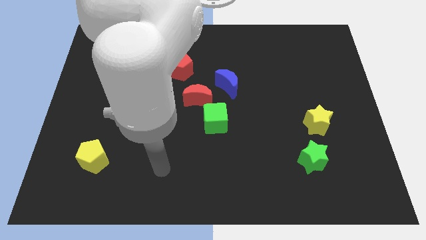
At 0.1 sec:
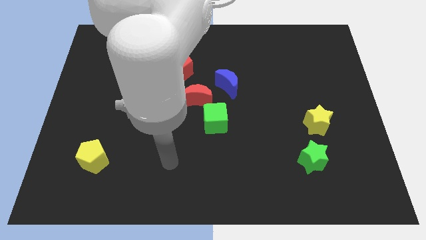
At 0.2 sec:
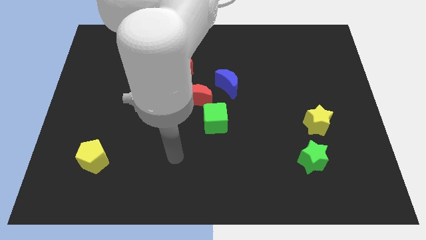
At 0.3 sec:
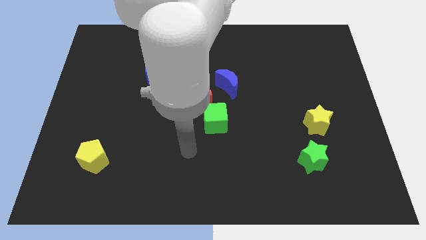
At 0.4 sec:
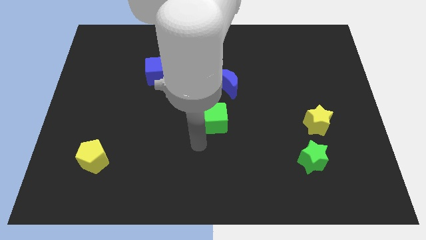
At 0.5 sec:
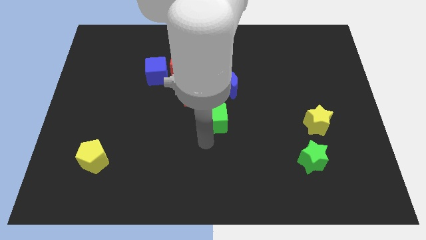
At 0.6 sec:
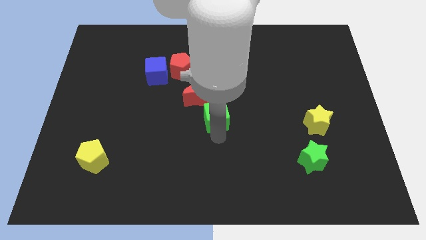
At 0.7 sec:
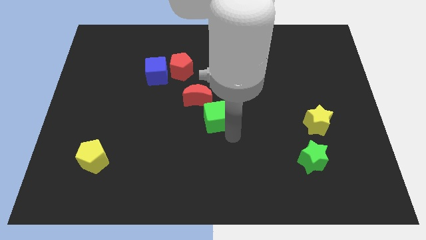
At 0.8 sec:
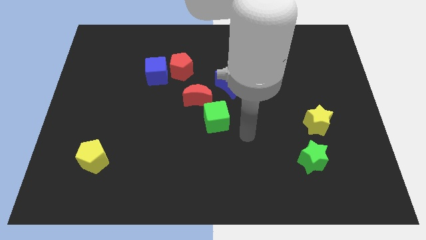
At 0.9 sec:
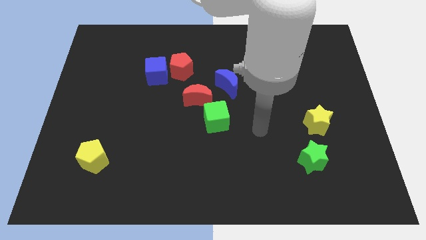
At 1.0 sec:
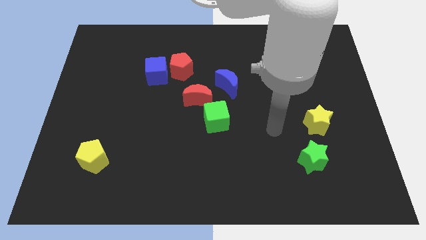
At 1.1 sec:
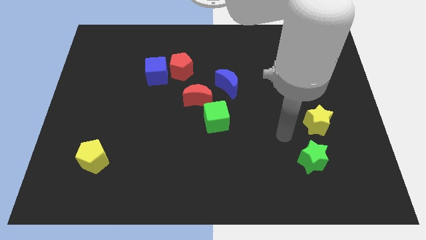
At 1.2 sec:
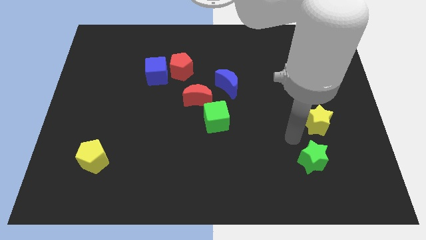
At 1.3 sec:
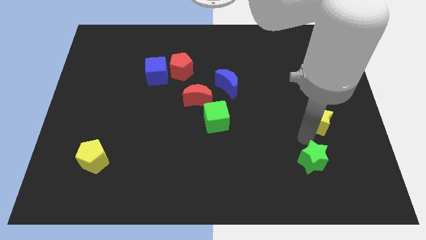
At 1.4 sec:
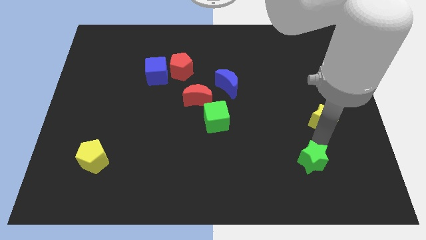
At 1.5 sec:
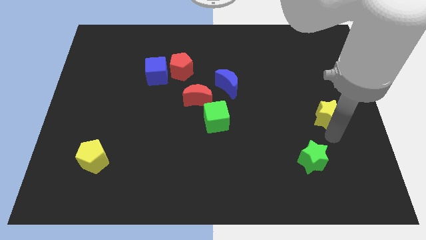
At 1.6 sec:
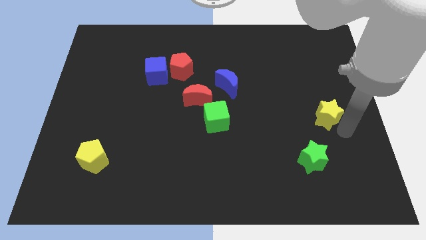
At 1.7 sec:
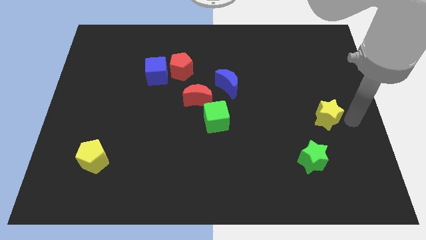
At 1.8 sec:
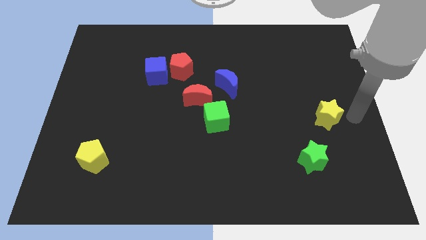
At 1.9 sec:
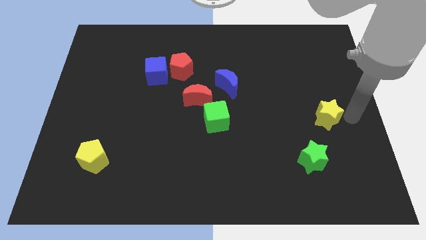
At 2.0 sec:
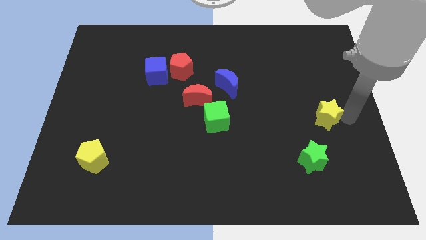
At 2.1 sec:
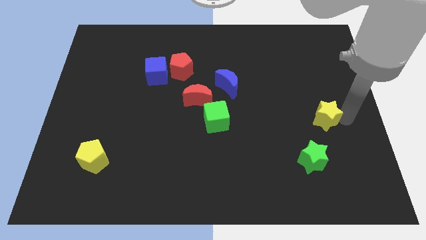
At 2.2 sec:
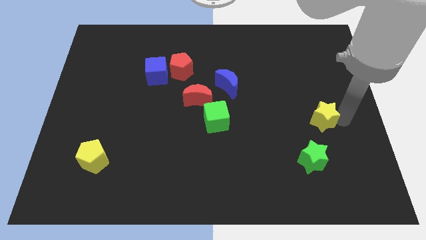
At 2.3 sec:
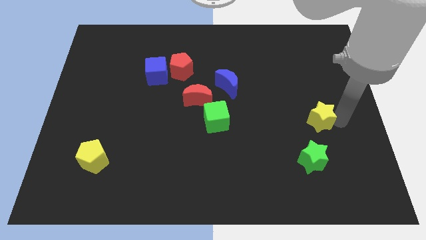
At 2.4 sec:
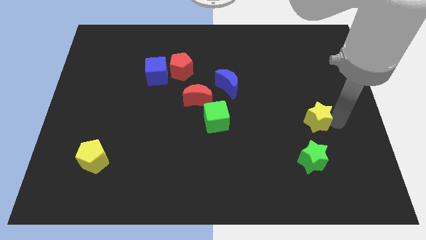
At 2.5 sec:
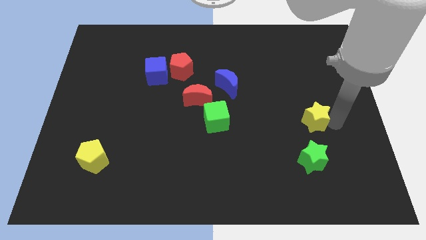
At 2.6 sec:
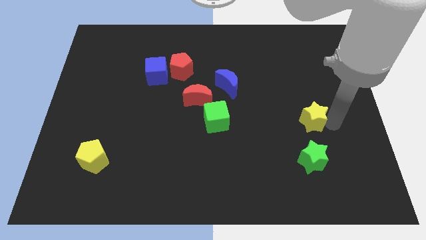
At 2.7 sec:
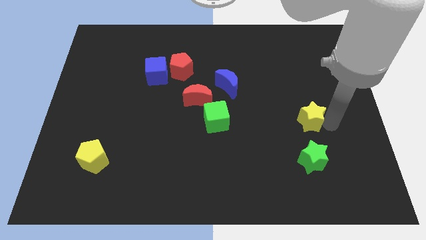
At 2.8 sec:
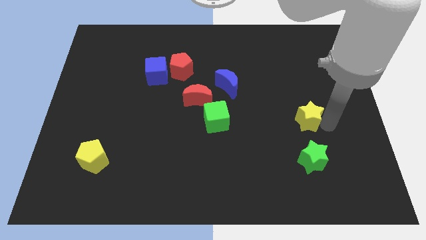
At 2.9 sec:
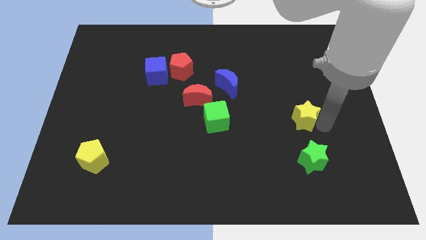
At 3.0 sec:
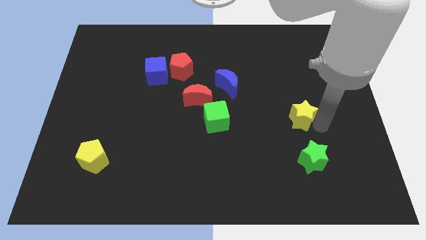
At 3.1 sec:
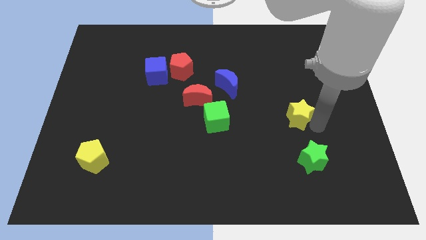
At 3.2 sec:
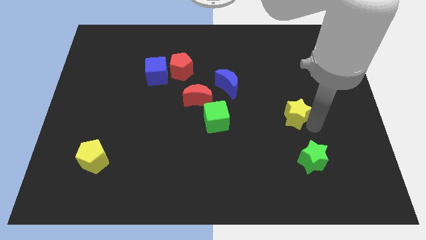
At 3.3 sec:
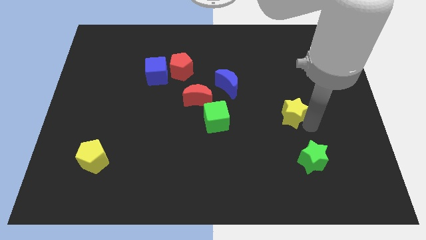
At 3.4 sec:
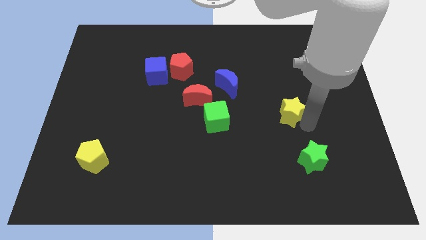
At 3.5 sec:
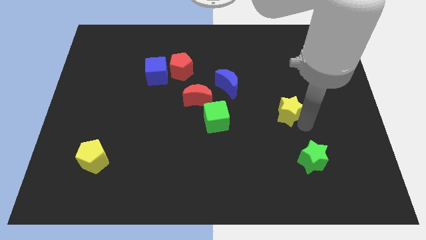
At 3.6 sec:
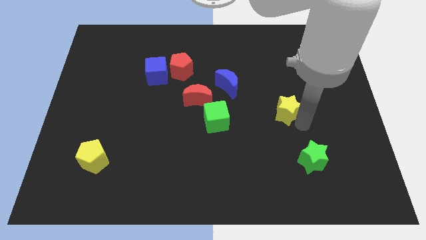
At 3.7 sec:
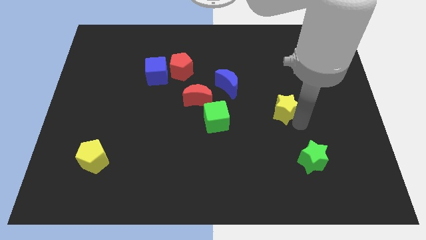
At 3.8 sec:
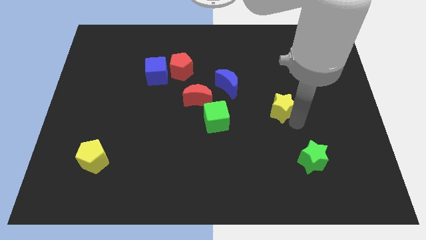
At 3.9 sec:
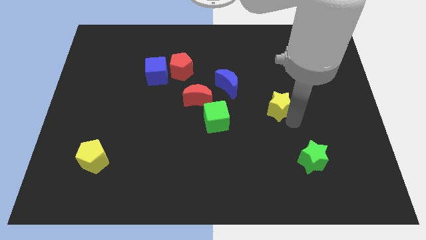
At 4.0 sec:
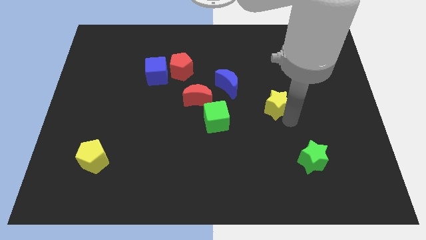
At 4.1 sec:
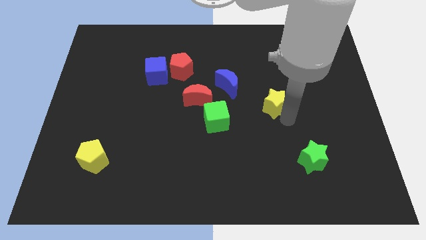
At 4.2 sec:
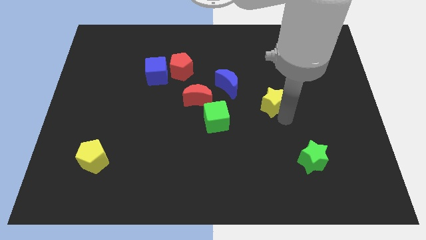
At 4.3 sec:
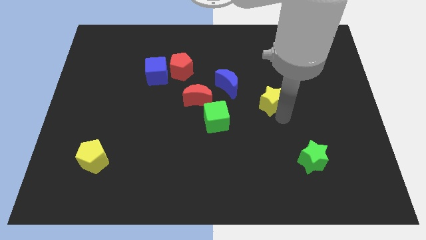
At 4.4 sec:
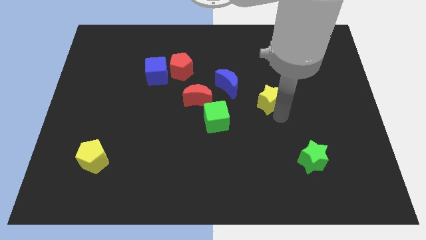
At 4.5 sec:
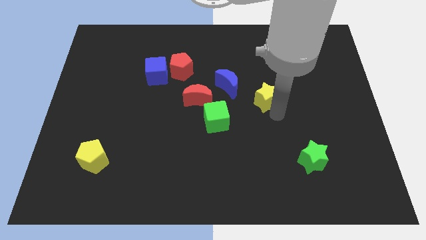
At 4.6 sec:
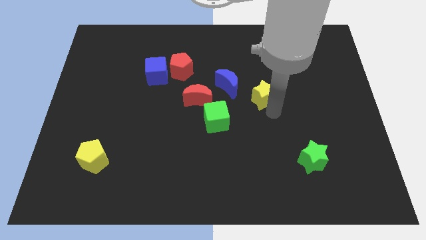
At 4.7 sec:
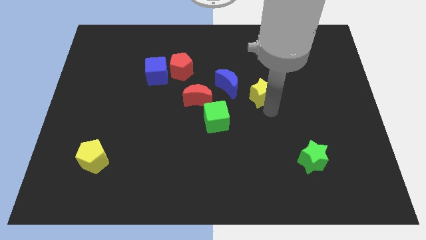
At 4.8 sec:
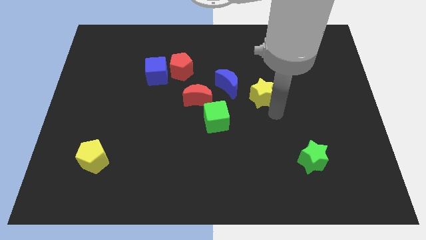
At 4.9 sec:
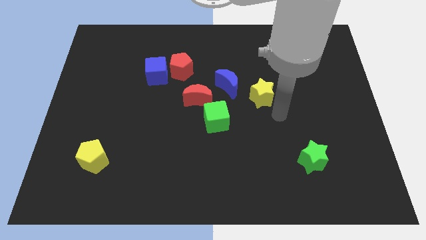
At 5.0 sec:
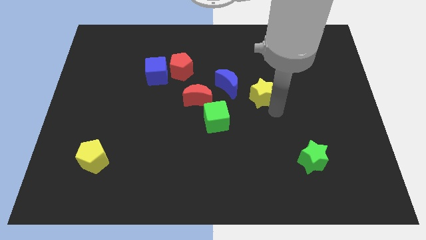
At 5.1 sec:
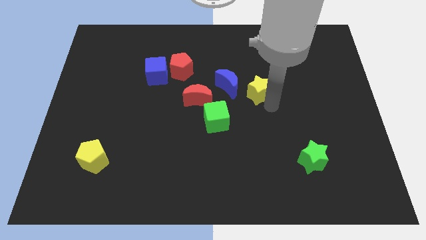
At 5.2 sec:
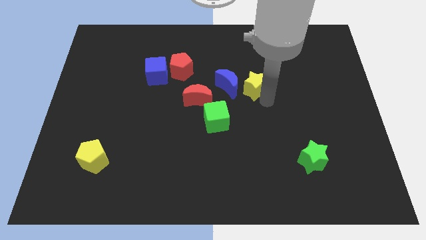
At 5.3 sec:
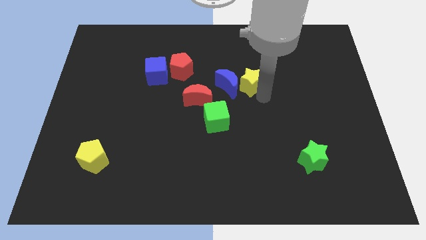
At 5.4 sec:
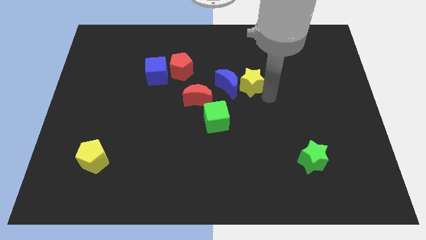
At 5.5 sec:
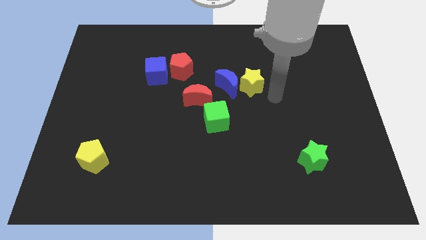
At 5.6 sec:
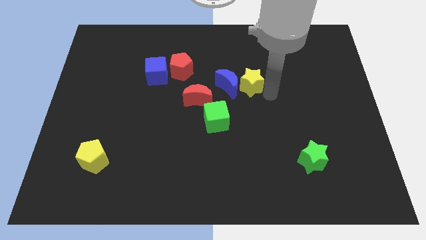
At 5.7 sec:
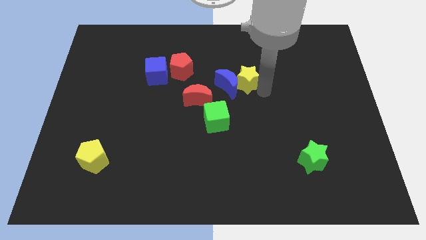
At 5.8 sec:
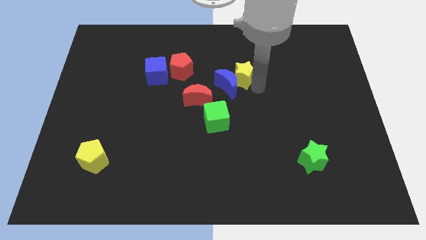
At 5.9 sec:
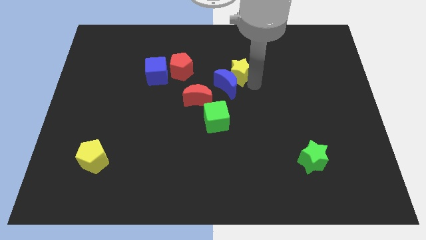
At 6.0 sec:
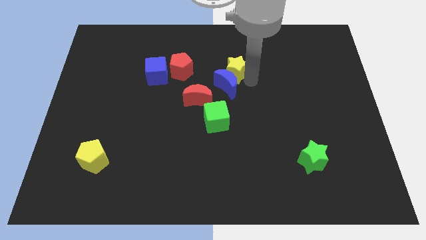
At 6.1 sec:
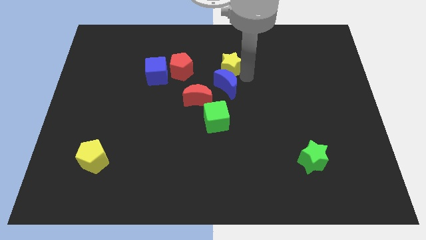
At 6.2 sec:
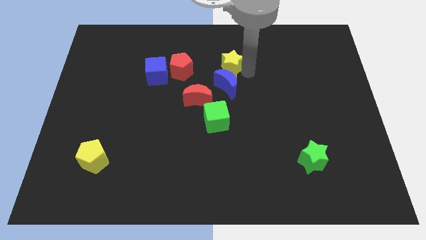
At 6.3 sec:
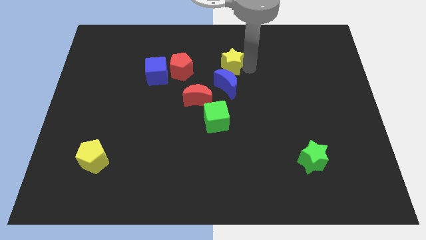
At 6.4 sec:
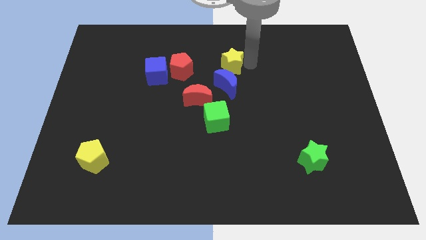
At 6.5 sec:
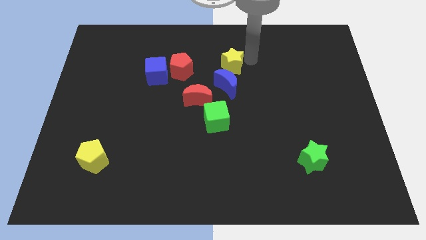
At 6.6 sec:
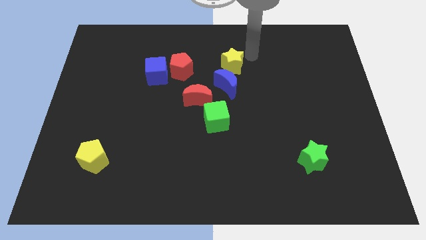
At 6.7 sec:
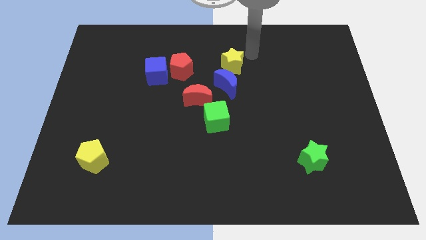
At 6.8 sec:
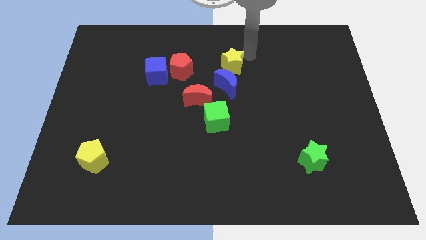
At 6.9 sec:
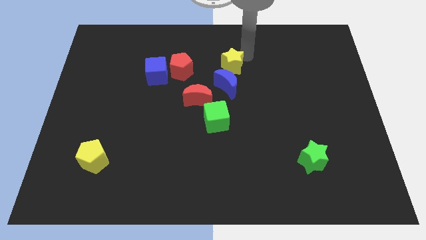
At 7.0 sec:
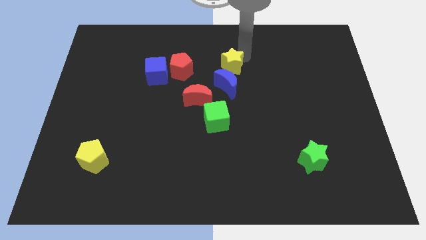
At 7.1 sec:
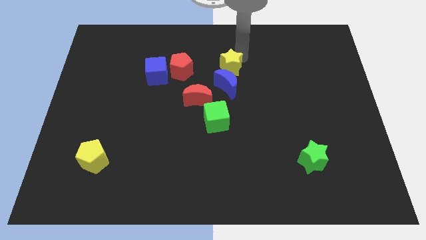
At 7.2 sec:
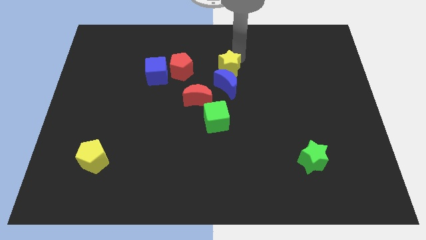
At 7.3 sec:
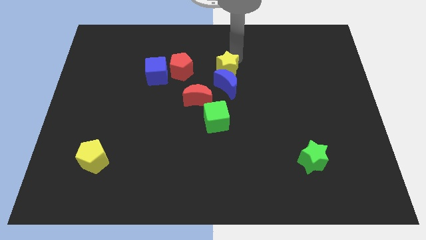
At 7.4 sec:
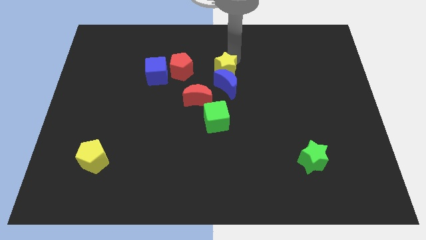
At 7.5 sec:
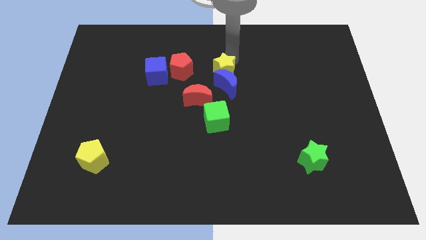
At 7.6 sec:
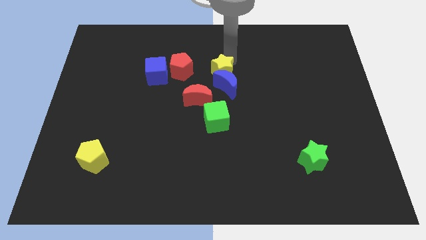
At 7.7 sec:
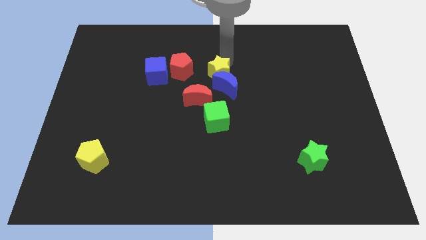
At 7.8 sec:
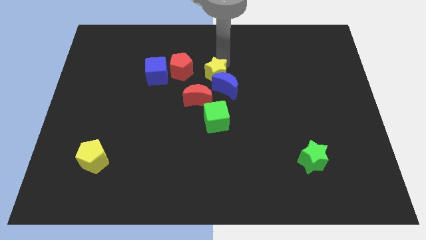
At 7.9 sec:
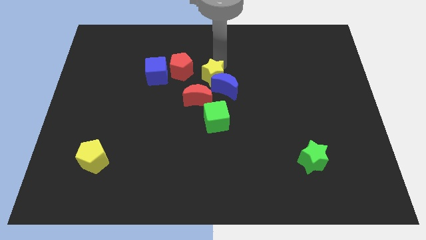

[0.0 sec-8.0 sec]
move the yellow star to the left of the blue moon
